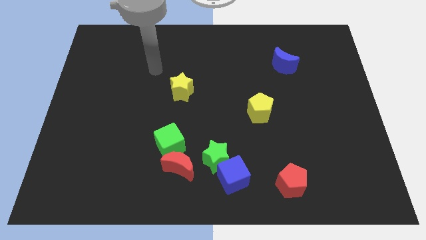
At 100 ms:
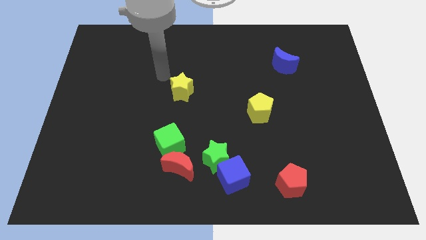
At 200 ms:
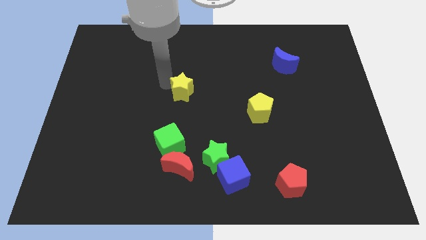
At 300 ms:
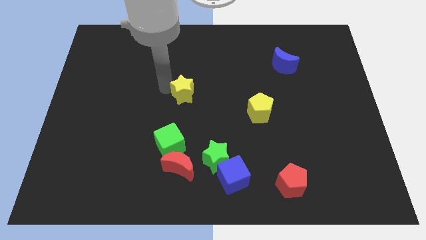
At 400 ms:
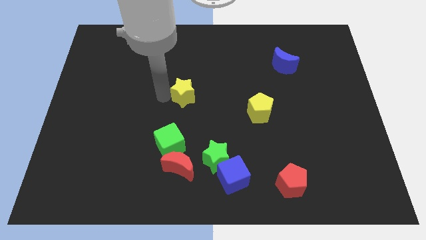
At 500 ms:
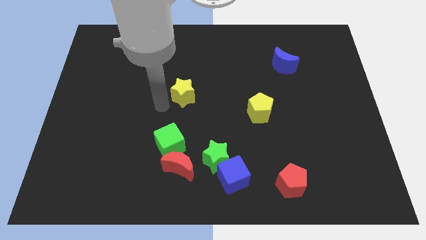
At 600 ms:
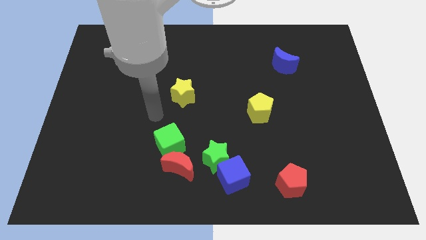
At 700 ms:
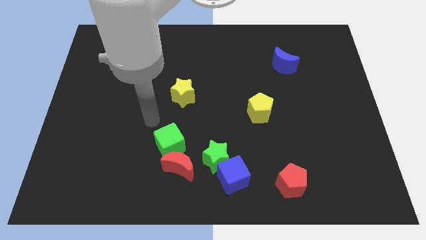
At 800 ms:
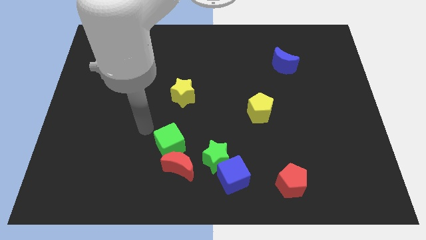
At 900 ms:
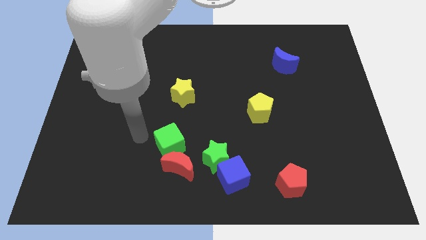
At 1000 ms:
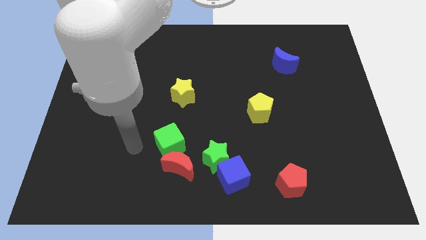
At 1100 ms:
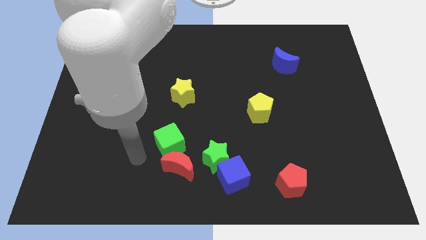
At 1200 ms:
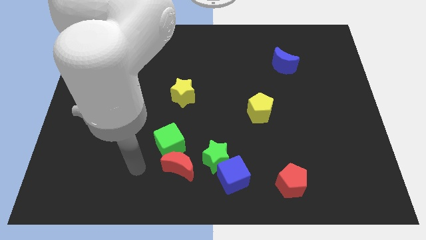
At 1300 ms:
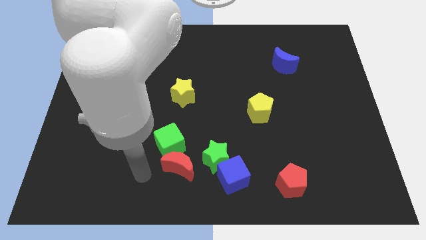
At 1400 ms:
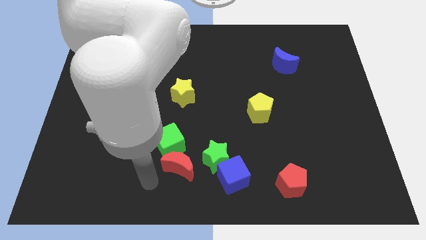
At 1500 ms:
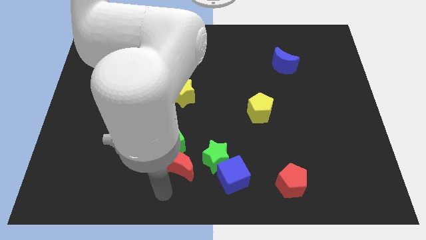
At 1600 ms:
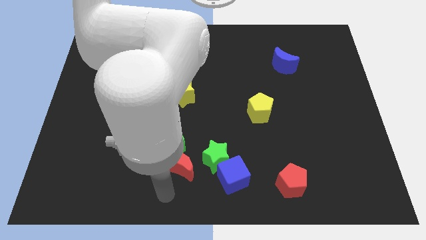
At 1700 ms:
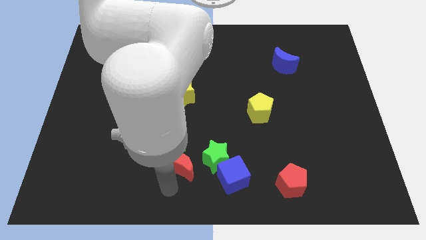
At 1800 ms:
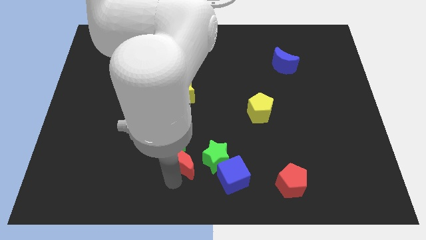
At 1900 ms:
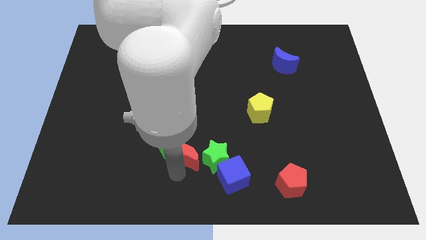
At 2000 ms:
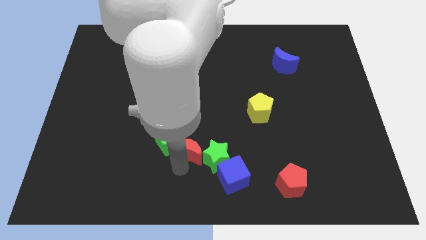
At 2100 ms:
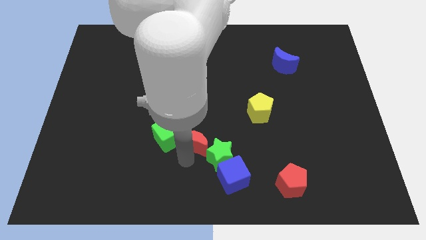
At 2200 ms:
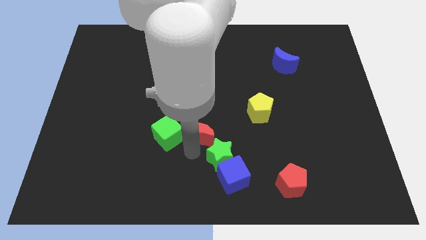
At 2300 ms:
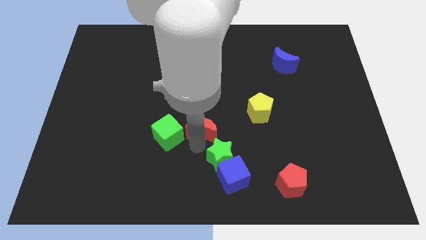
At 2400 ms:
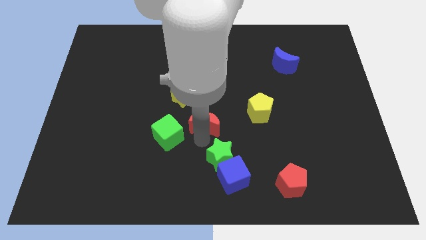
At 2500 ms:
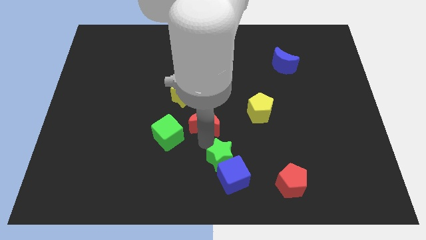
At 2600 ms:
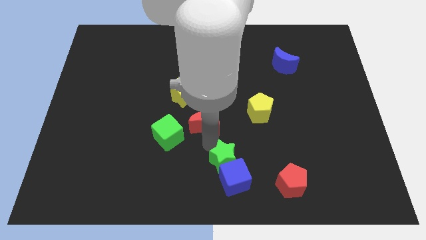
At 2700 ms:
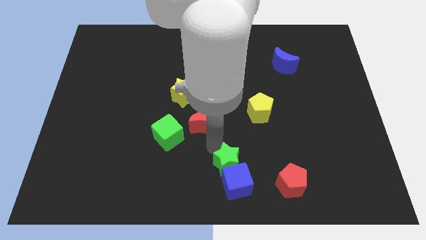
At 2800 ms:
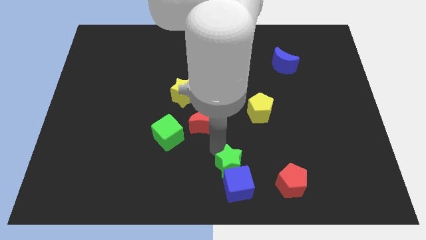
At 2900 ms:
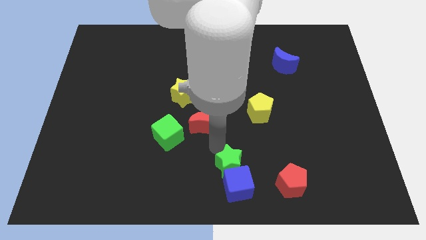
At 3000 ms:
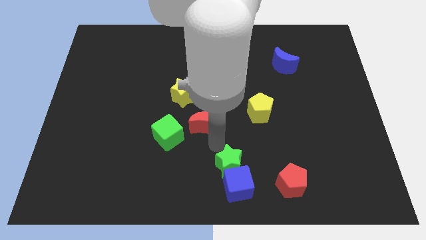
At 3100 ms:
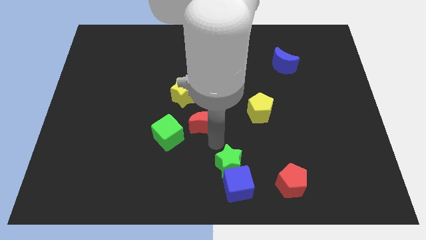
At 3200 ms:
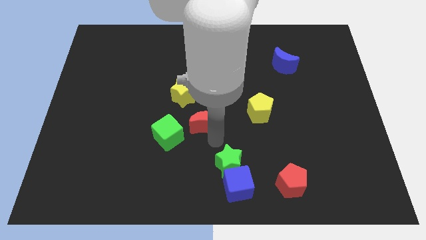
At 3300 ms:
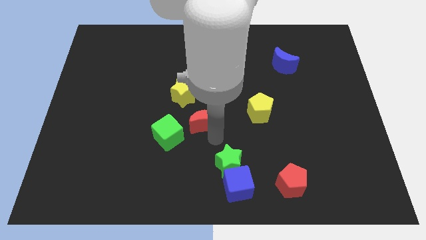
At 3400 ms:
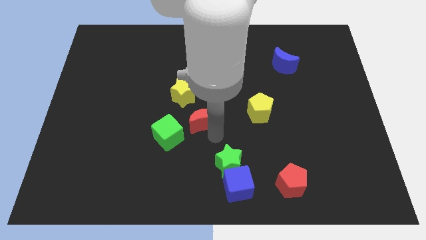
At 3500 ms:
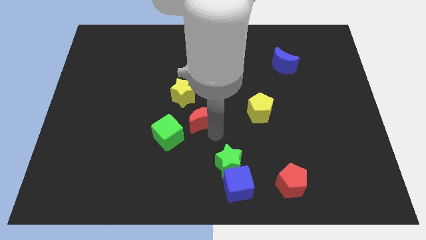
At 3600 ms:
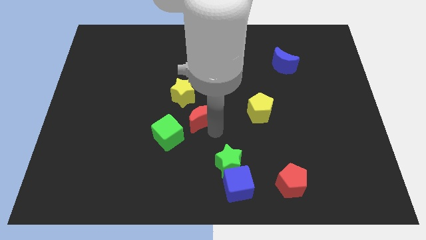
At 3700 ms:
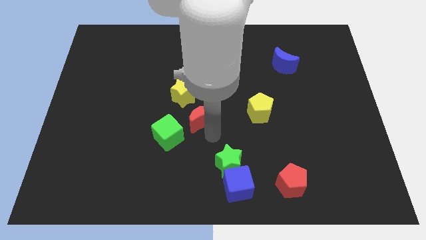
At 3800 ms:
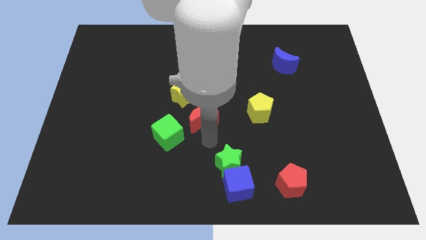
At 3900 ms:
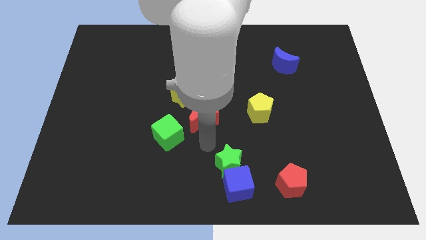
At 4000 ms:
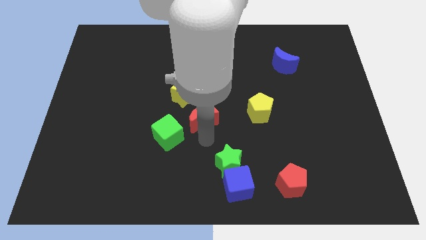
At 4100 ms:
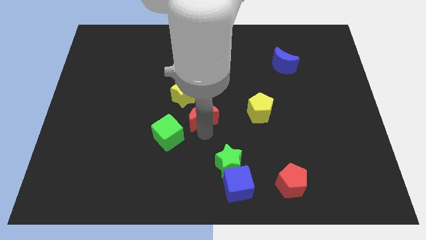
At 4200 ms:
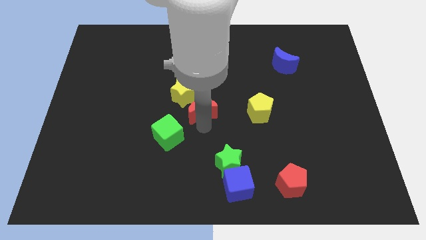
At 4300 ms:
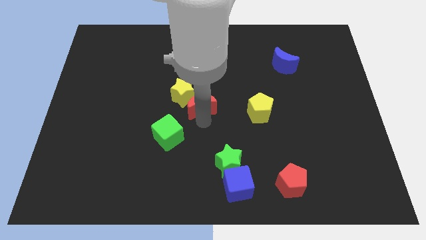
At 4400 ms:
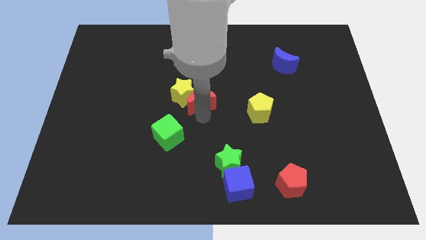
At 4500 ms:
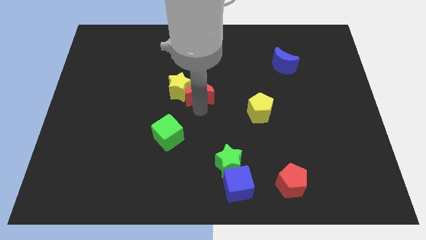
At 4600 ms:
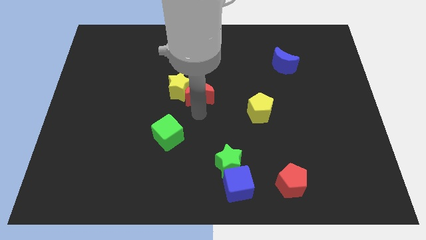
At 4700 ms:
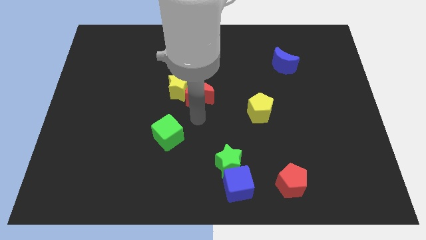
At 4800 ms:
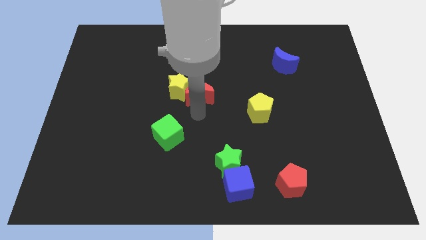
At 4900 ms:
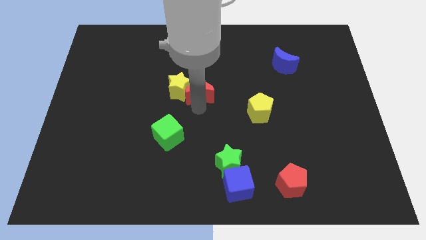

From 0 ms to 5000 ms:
put the red moon to the top right side of the yellow star

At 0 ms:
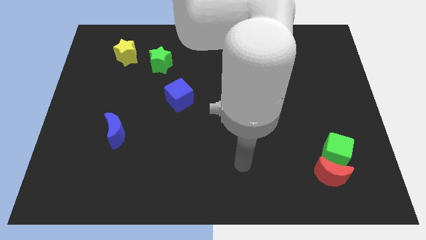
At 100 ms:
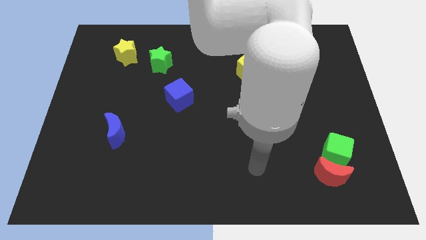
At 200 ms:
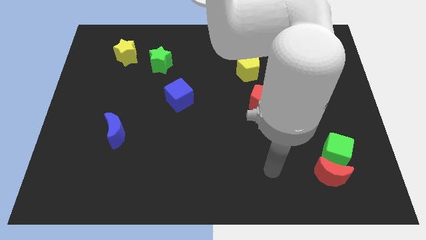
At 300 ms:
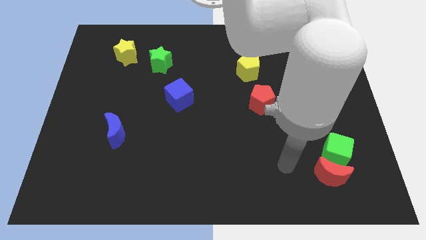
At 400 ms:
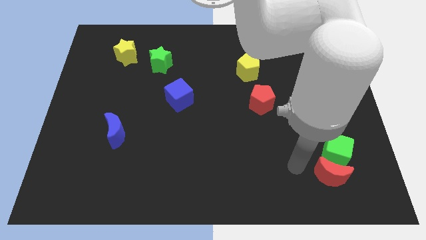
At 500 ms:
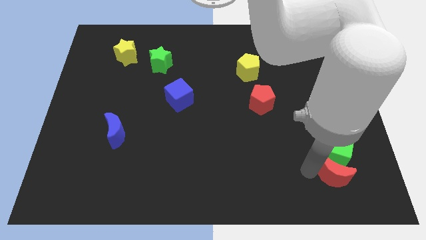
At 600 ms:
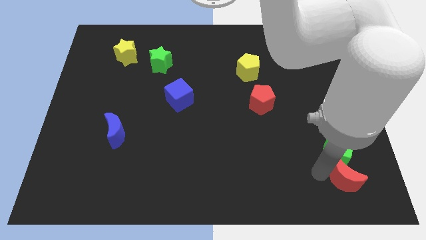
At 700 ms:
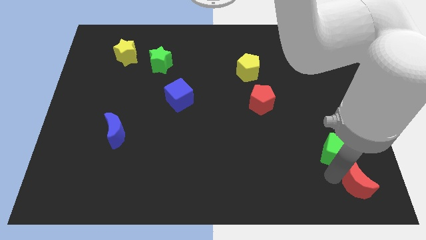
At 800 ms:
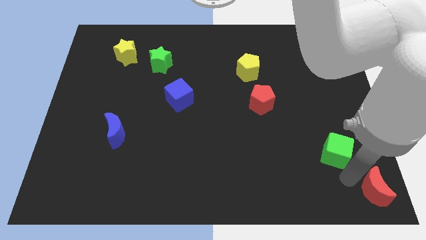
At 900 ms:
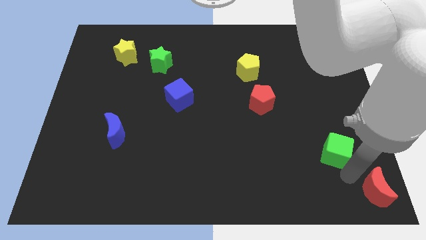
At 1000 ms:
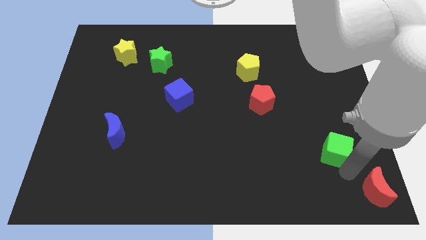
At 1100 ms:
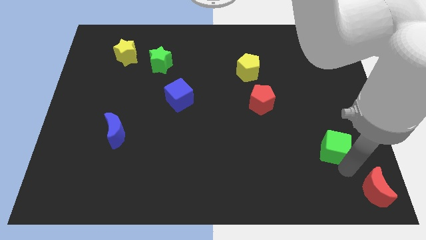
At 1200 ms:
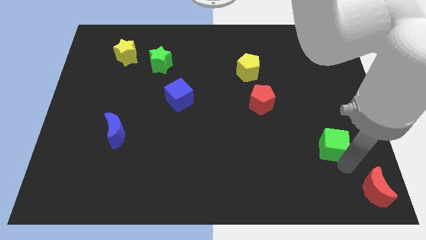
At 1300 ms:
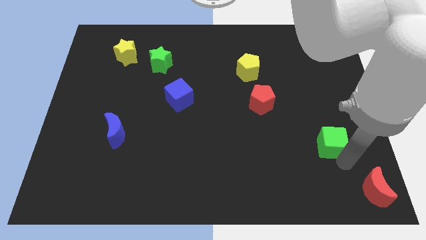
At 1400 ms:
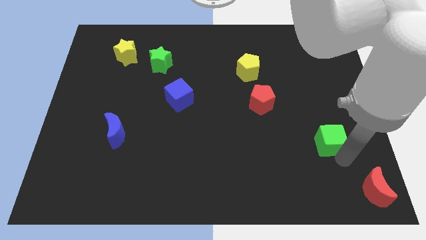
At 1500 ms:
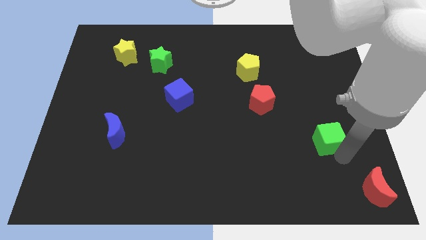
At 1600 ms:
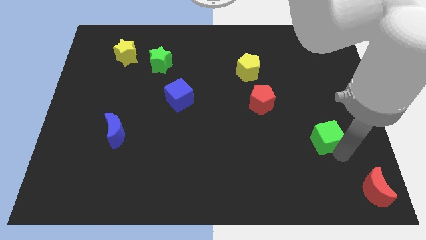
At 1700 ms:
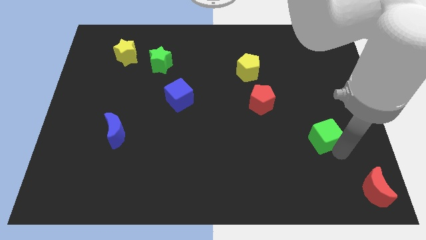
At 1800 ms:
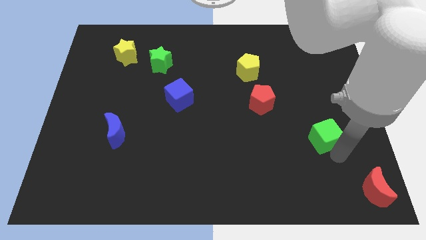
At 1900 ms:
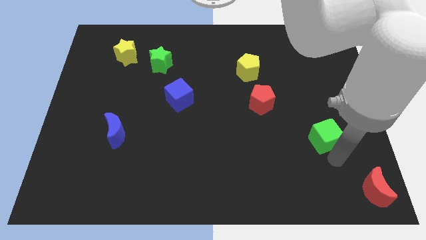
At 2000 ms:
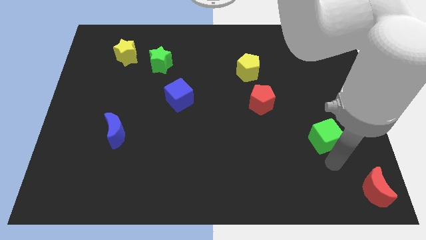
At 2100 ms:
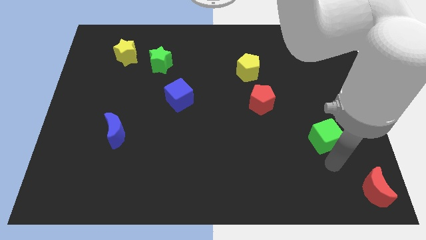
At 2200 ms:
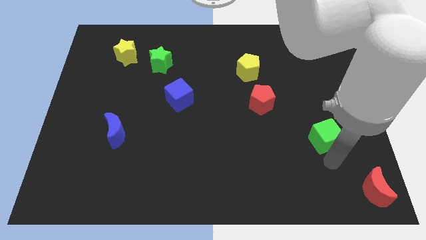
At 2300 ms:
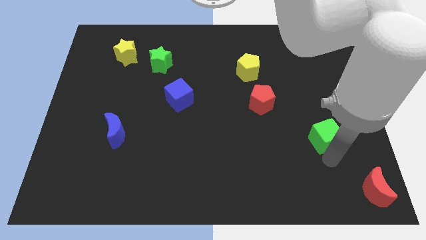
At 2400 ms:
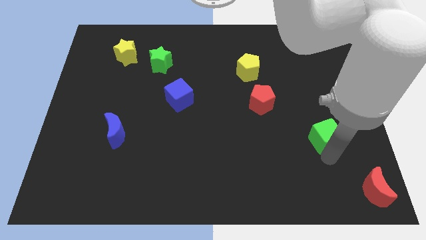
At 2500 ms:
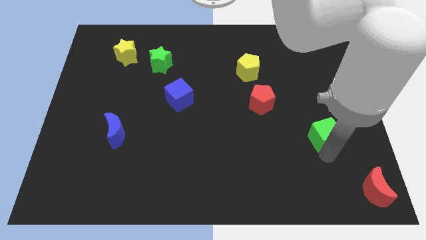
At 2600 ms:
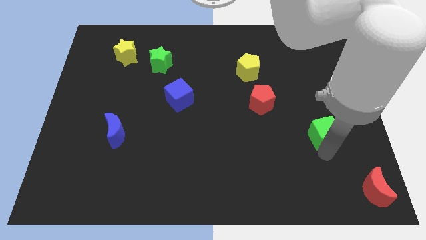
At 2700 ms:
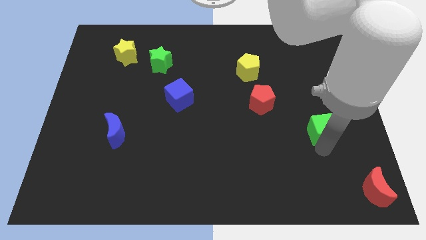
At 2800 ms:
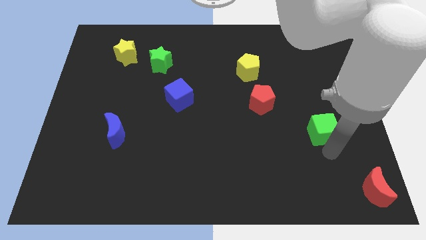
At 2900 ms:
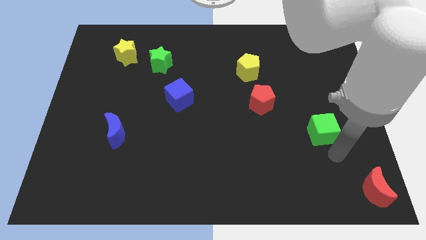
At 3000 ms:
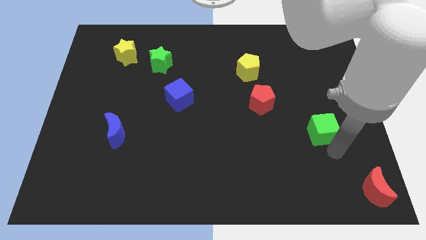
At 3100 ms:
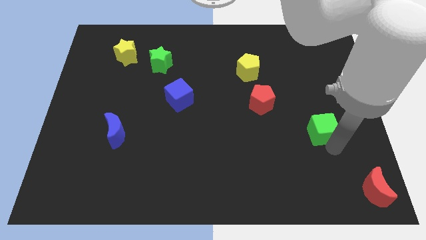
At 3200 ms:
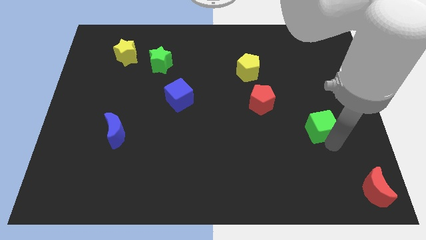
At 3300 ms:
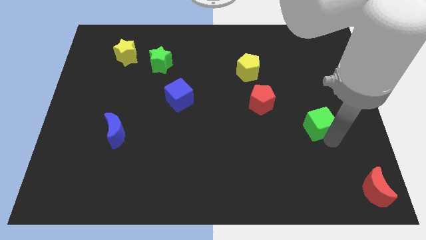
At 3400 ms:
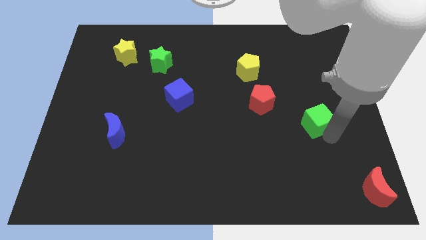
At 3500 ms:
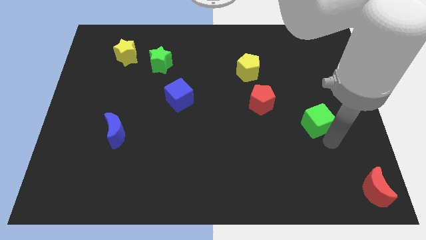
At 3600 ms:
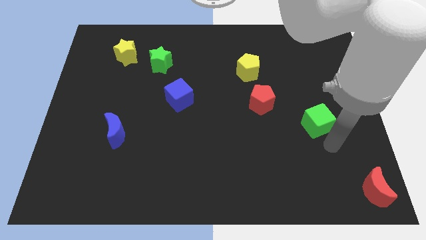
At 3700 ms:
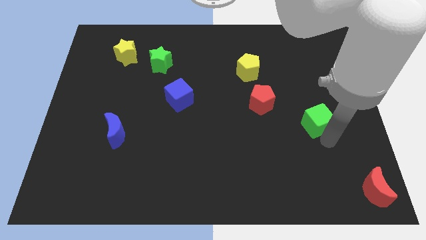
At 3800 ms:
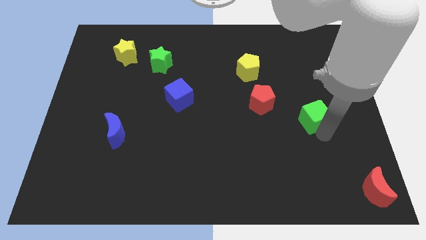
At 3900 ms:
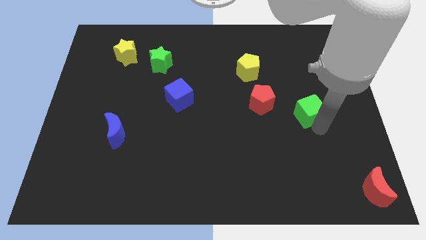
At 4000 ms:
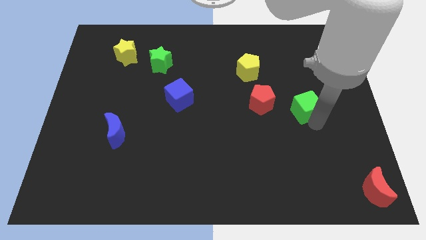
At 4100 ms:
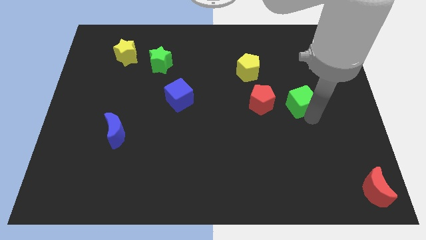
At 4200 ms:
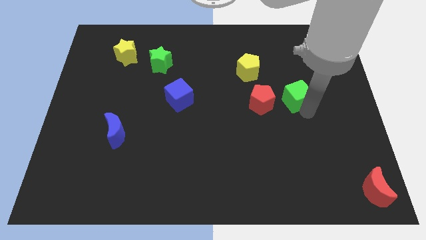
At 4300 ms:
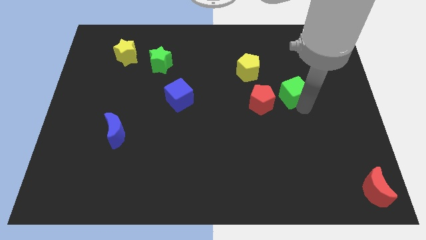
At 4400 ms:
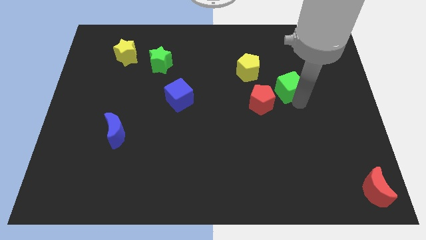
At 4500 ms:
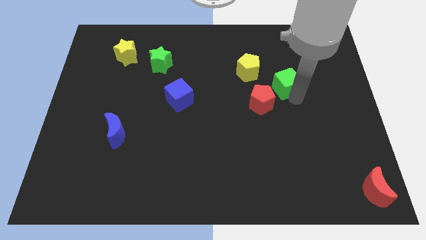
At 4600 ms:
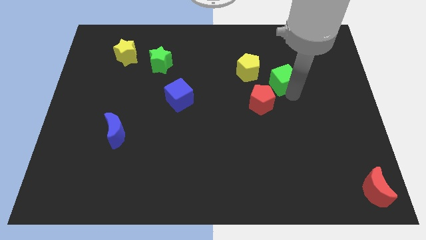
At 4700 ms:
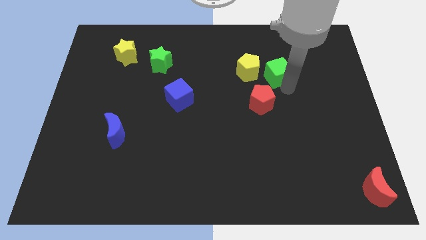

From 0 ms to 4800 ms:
move the green cube to the top side of the red pentagon
